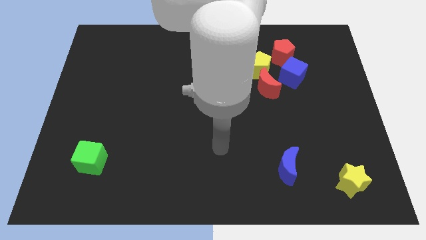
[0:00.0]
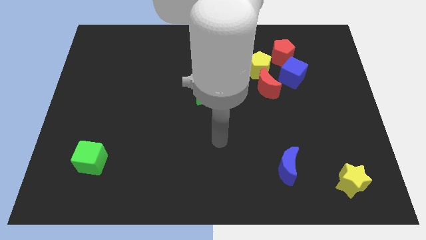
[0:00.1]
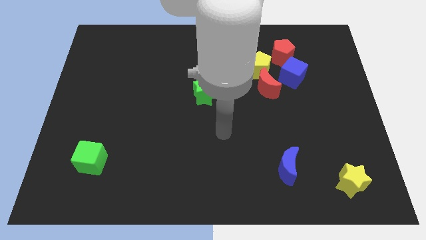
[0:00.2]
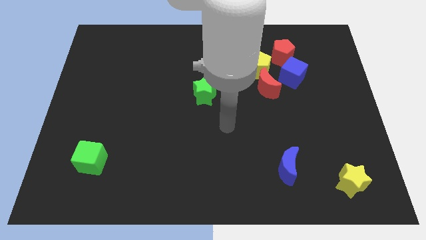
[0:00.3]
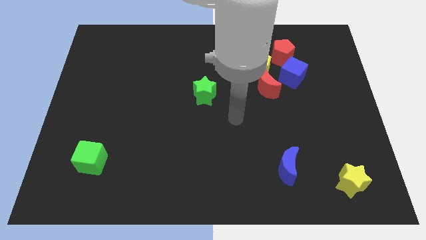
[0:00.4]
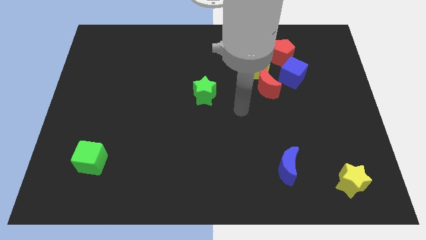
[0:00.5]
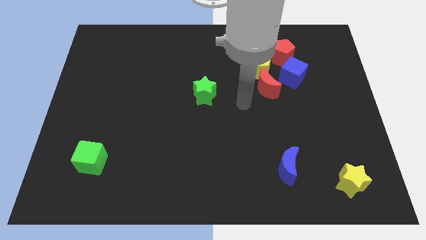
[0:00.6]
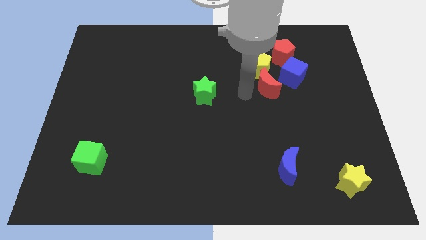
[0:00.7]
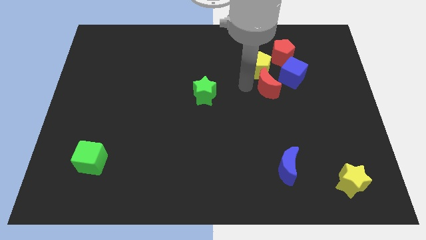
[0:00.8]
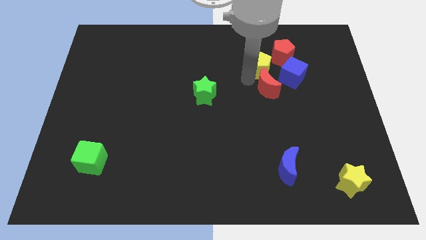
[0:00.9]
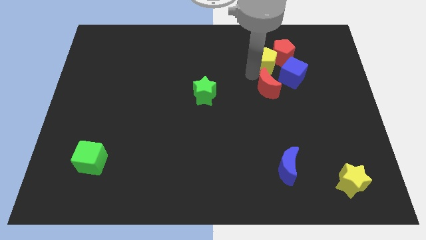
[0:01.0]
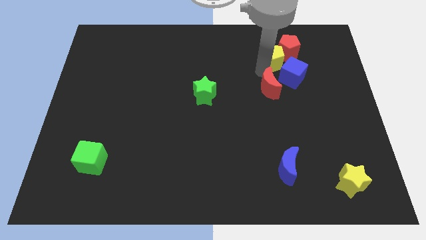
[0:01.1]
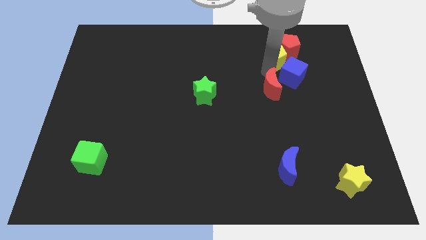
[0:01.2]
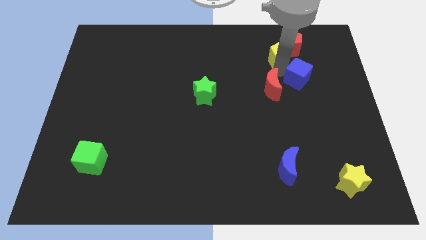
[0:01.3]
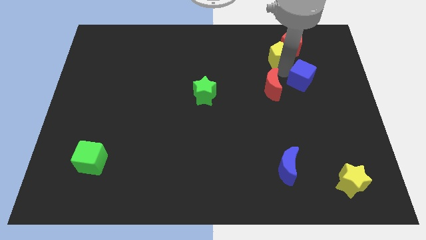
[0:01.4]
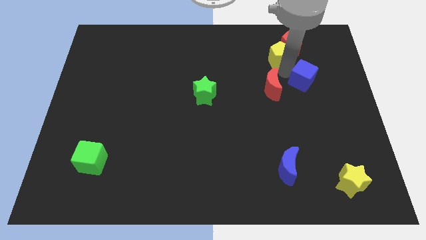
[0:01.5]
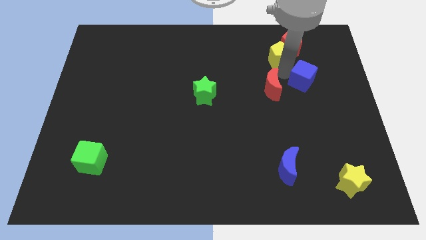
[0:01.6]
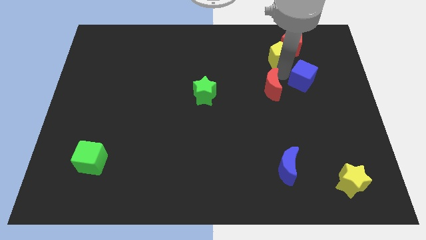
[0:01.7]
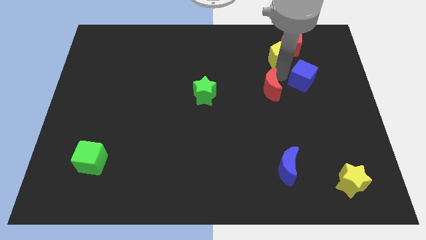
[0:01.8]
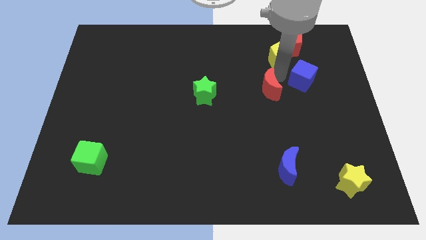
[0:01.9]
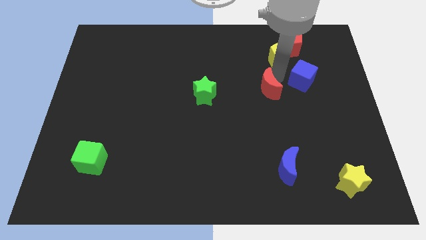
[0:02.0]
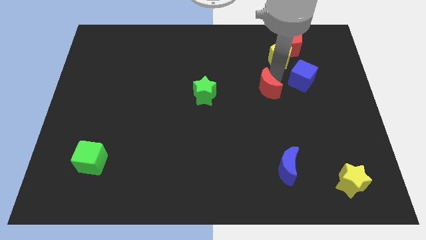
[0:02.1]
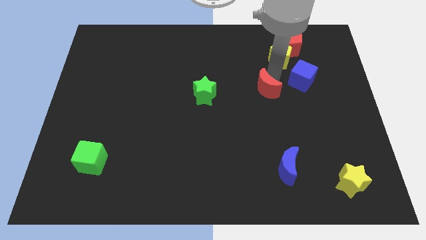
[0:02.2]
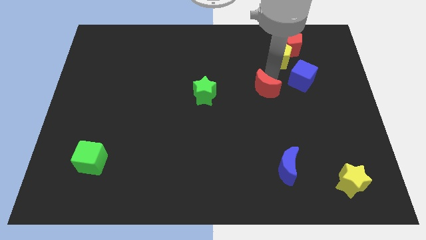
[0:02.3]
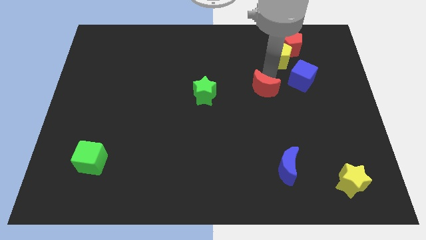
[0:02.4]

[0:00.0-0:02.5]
move the red moon away from the yellow pentagon and blue cube

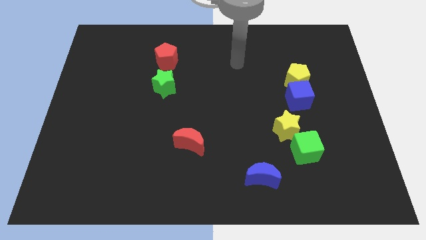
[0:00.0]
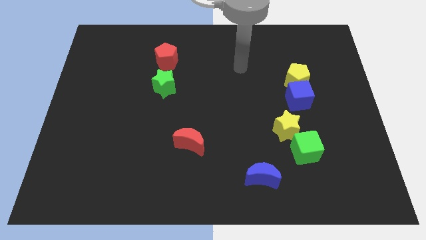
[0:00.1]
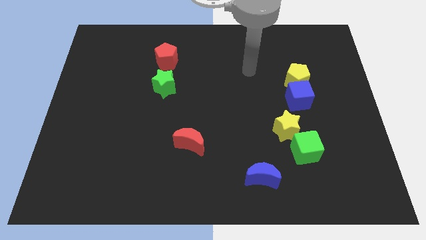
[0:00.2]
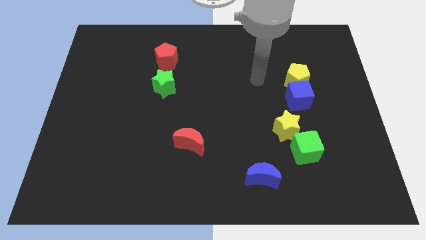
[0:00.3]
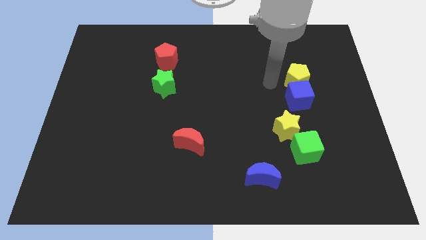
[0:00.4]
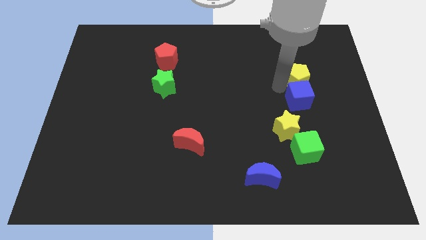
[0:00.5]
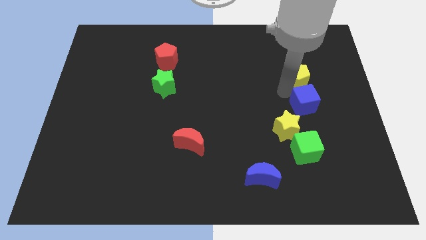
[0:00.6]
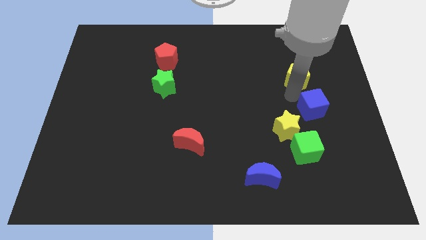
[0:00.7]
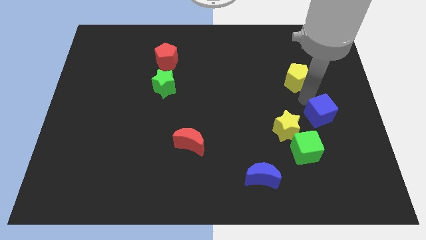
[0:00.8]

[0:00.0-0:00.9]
pull the yellow pentagon apart from the blue cube

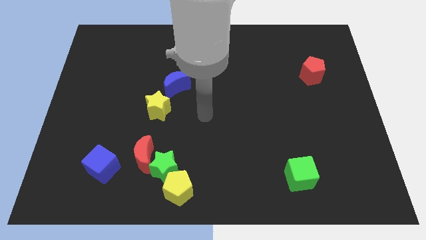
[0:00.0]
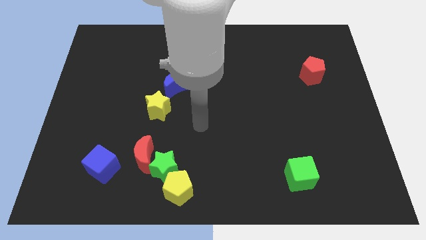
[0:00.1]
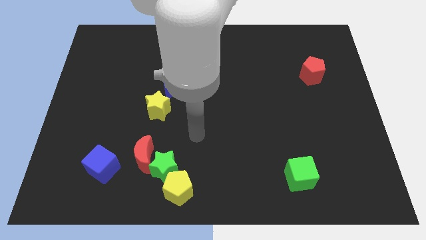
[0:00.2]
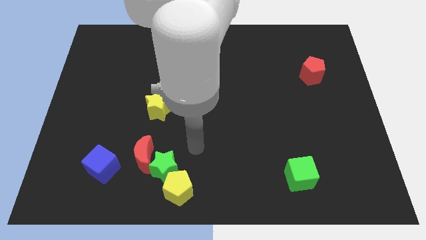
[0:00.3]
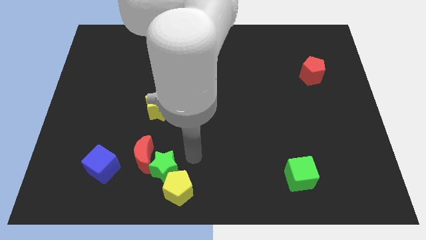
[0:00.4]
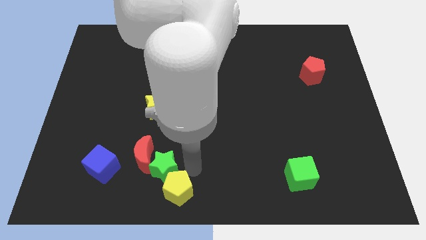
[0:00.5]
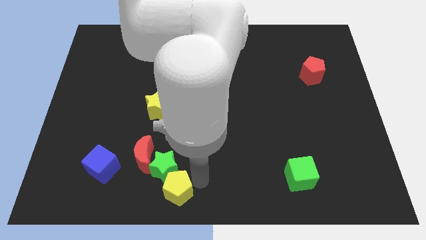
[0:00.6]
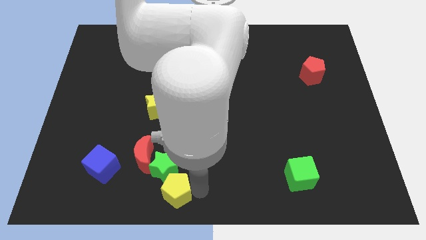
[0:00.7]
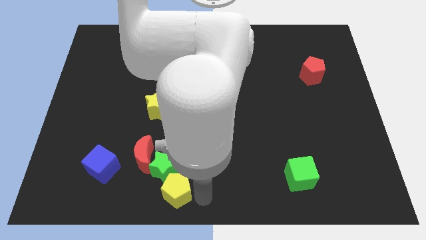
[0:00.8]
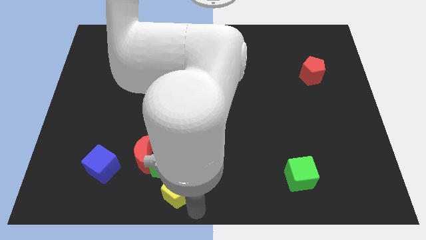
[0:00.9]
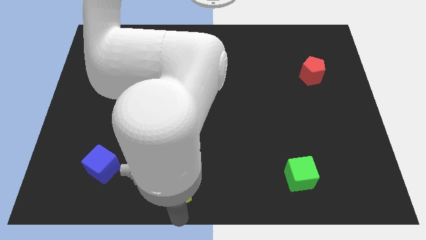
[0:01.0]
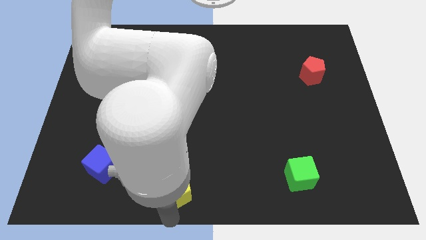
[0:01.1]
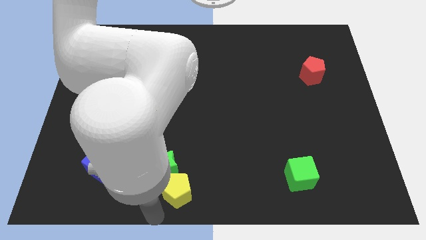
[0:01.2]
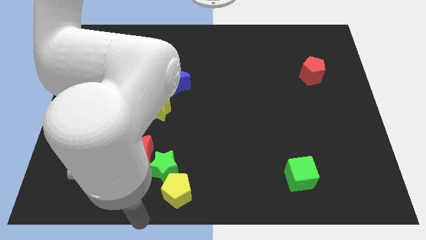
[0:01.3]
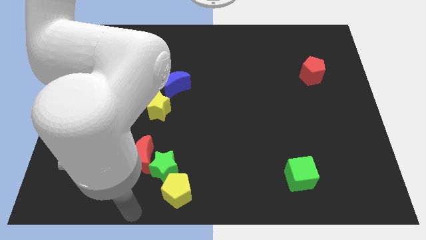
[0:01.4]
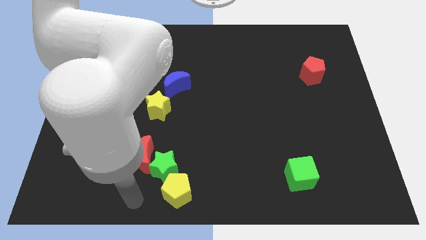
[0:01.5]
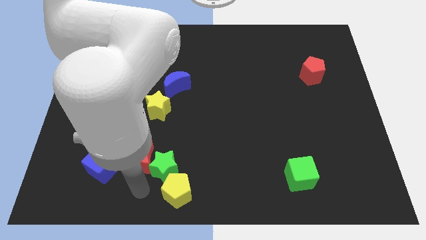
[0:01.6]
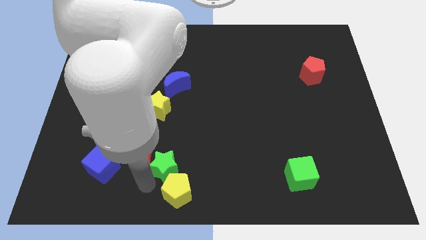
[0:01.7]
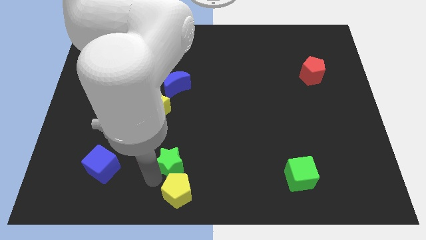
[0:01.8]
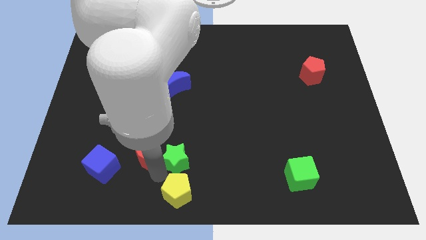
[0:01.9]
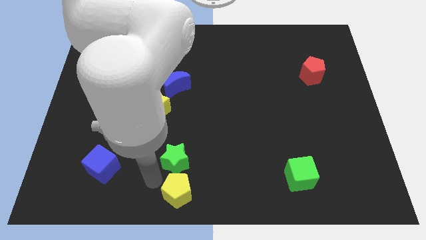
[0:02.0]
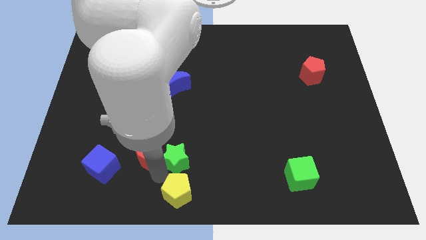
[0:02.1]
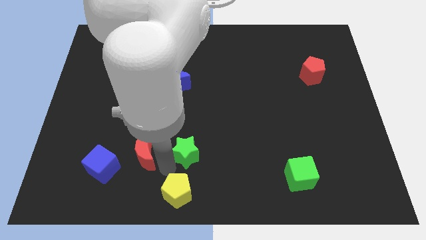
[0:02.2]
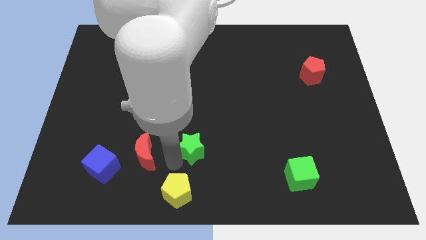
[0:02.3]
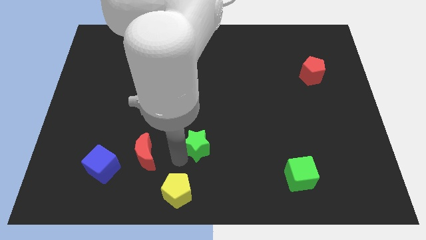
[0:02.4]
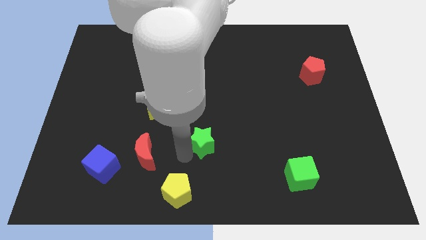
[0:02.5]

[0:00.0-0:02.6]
separate the green star from the red moon and yellow pentagon

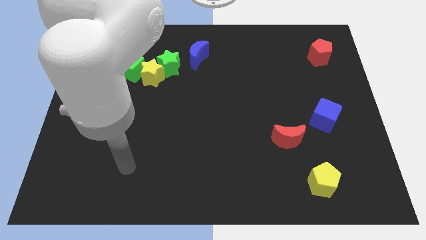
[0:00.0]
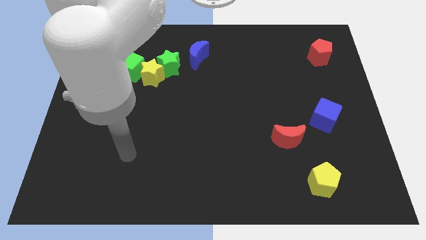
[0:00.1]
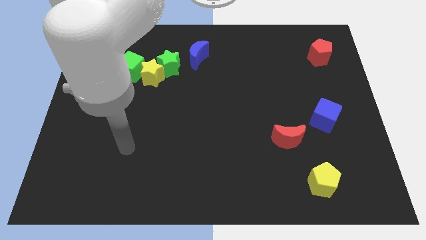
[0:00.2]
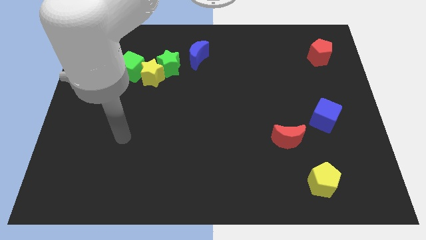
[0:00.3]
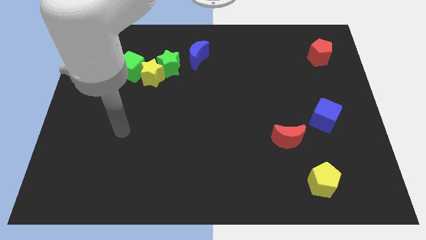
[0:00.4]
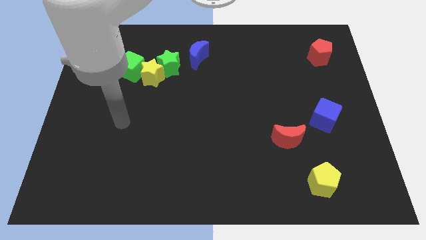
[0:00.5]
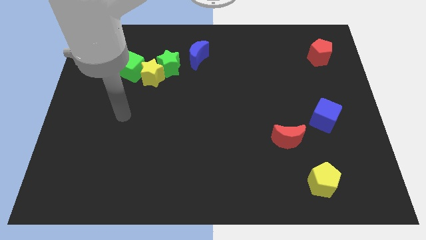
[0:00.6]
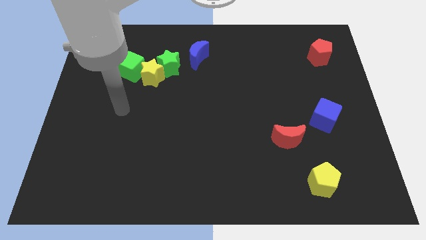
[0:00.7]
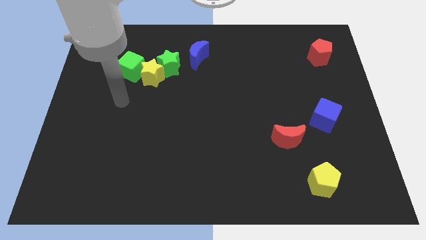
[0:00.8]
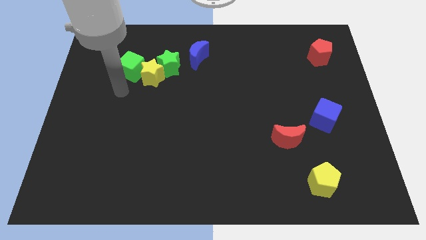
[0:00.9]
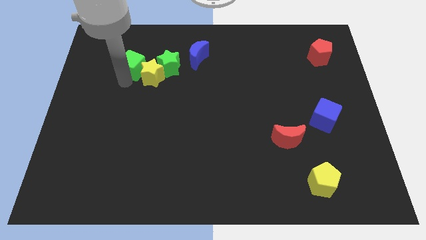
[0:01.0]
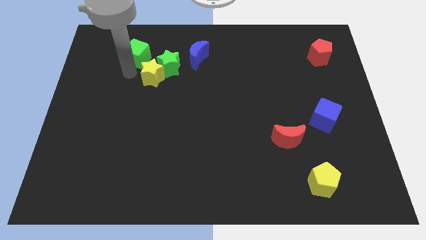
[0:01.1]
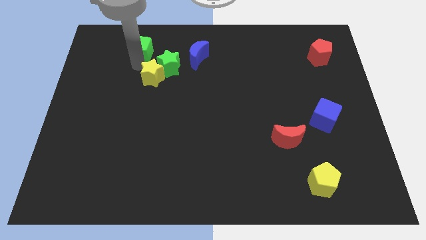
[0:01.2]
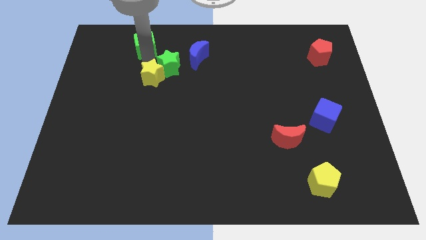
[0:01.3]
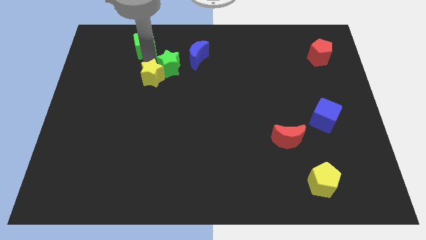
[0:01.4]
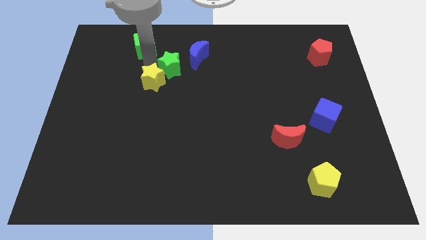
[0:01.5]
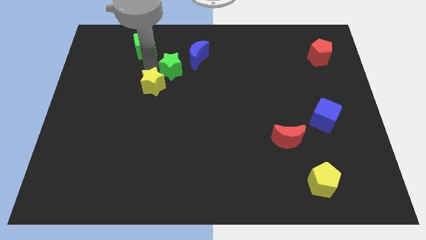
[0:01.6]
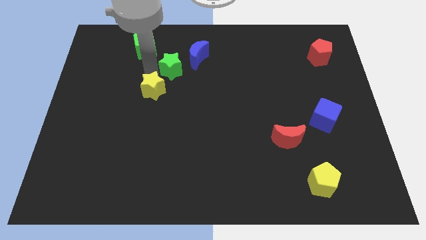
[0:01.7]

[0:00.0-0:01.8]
move the yellow star away from the green star and green cube

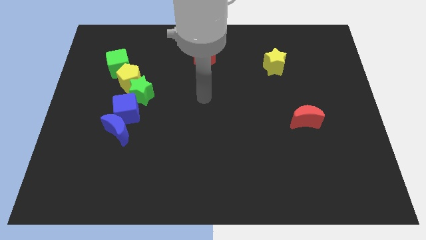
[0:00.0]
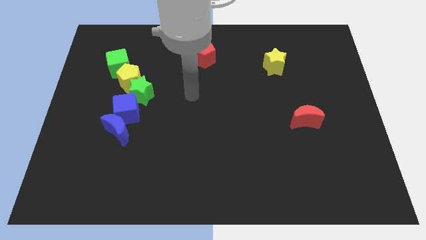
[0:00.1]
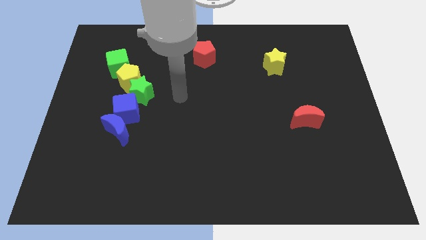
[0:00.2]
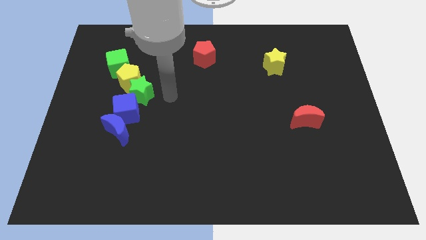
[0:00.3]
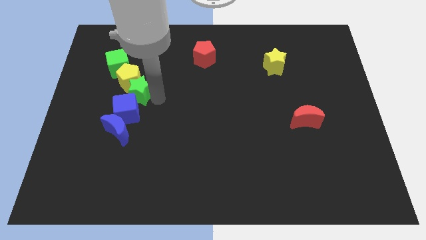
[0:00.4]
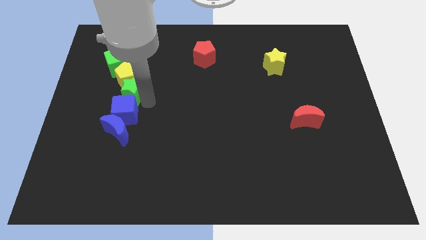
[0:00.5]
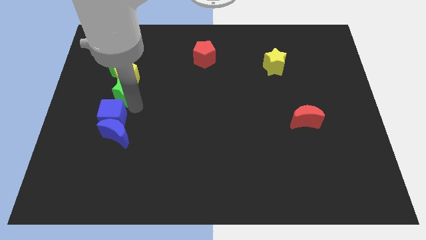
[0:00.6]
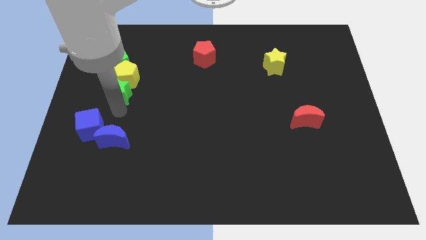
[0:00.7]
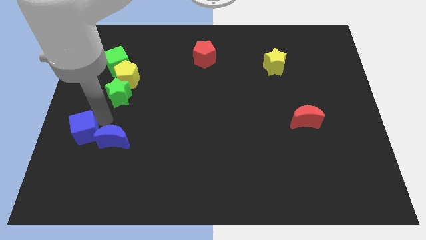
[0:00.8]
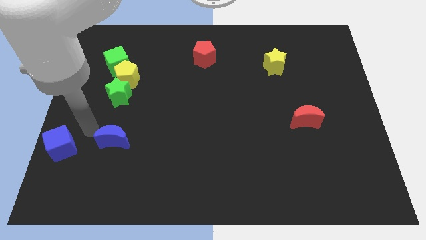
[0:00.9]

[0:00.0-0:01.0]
pull the blue moon apart from the blue cube

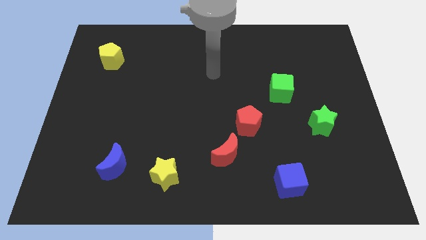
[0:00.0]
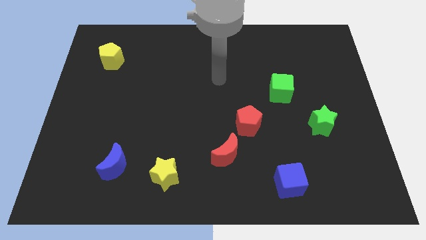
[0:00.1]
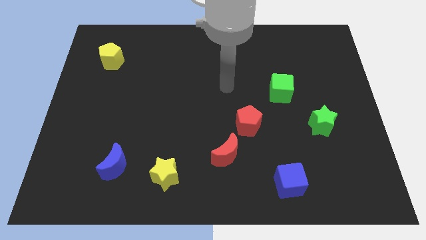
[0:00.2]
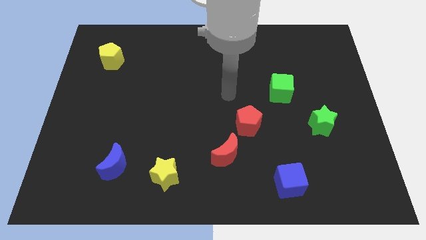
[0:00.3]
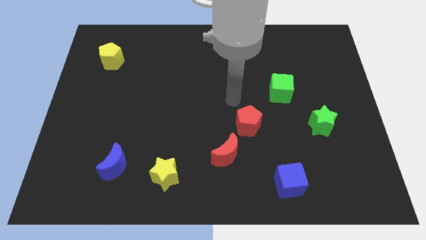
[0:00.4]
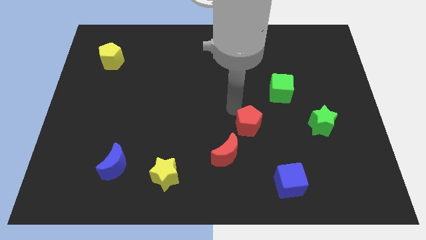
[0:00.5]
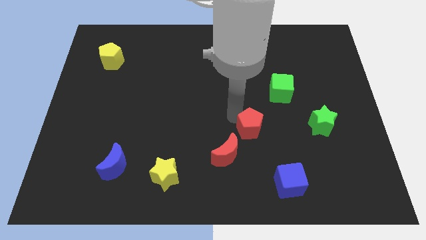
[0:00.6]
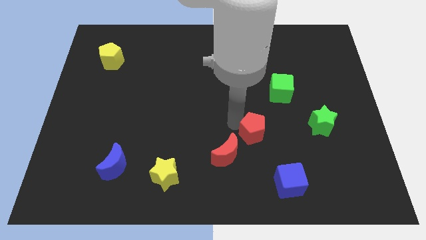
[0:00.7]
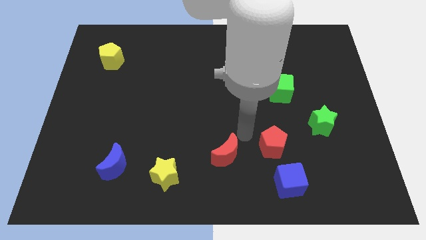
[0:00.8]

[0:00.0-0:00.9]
move the red moon away from the red pentagon
